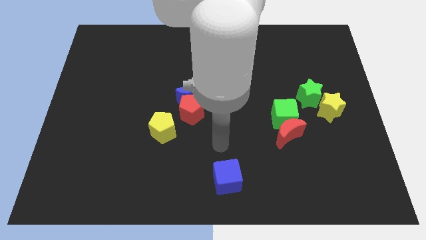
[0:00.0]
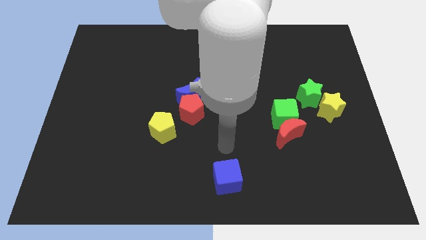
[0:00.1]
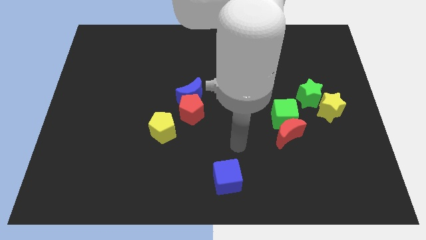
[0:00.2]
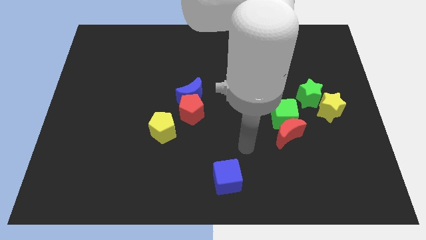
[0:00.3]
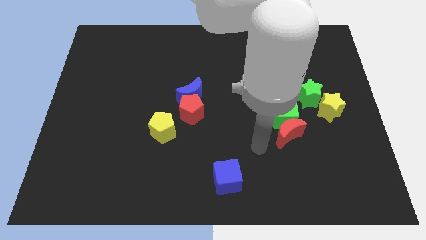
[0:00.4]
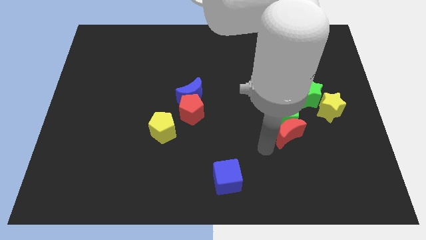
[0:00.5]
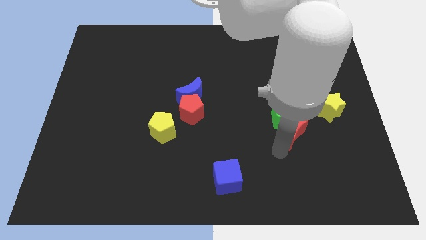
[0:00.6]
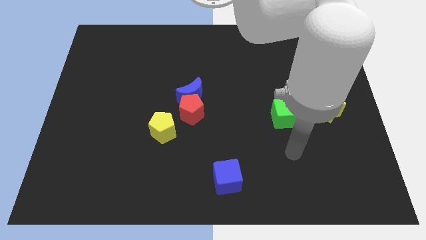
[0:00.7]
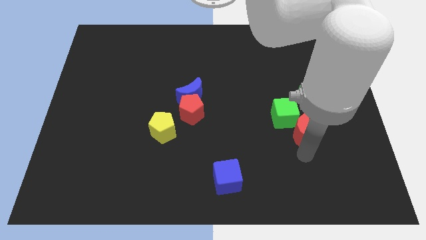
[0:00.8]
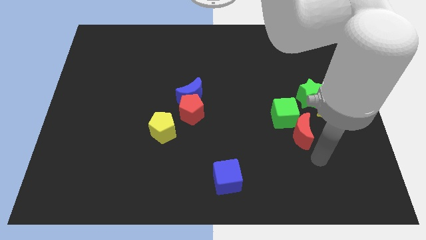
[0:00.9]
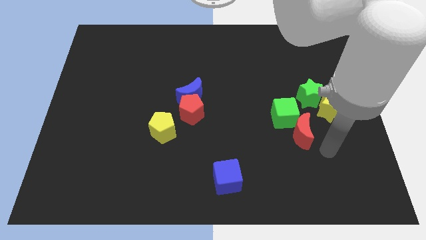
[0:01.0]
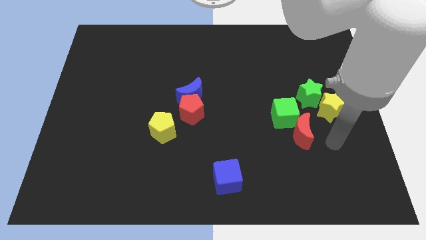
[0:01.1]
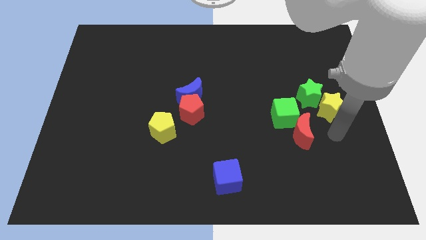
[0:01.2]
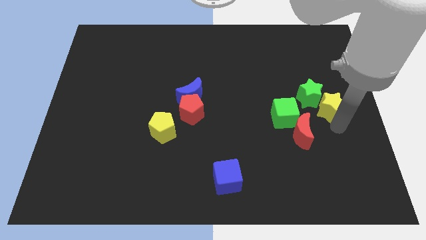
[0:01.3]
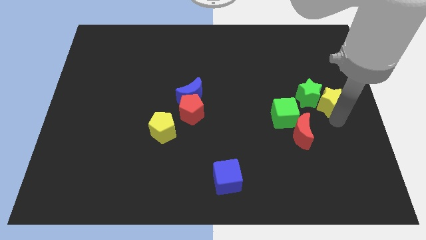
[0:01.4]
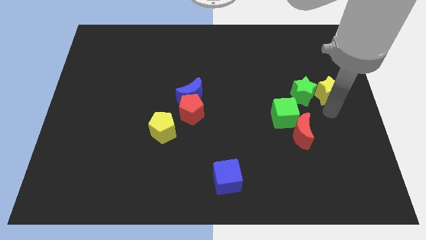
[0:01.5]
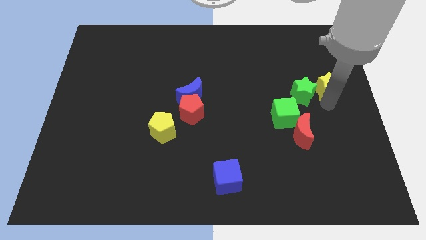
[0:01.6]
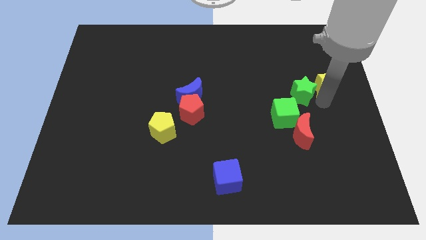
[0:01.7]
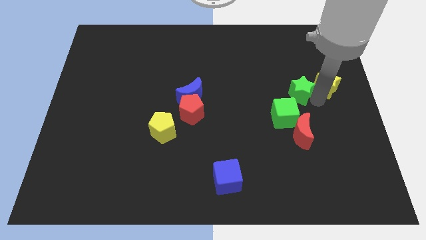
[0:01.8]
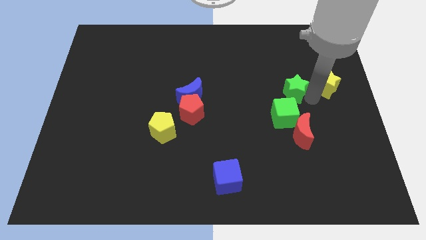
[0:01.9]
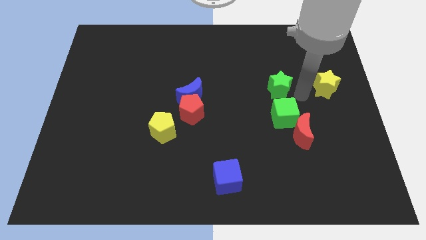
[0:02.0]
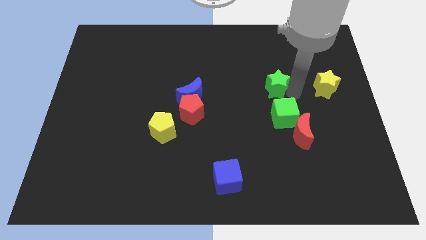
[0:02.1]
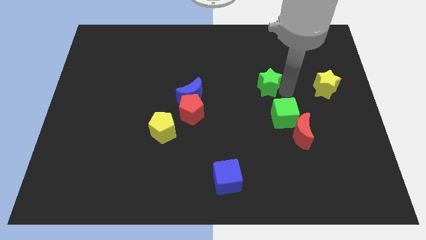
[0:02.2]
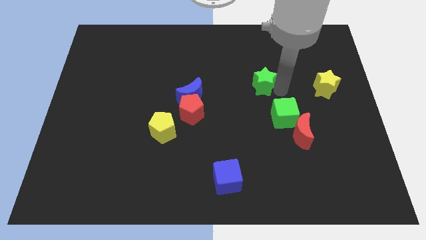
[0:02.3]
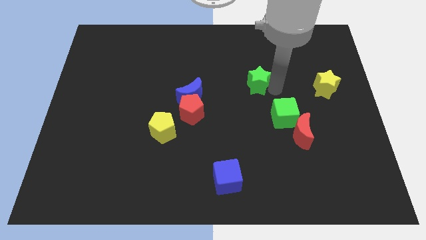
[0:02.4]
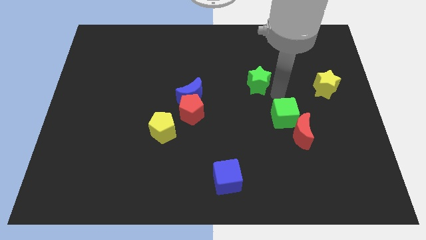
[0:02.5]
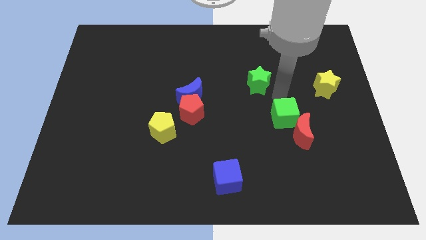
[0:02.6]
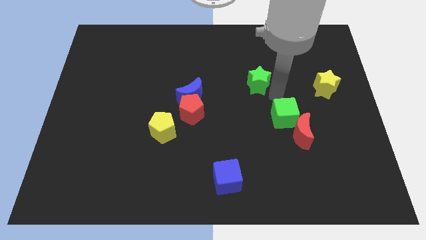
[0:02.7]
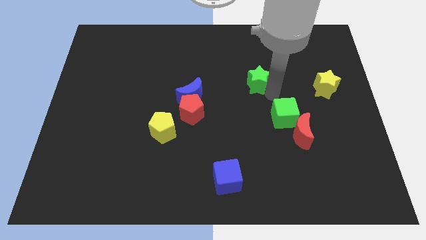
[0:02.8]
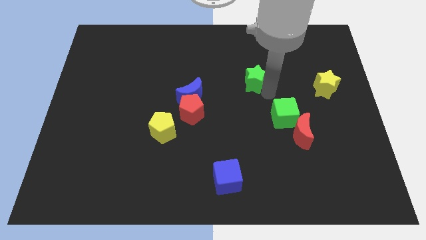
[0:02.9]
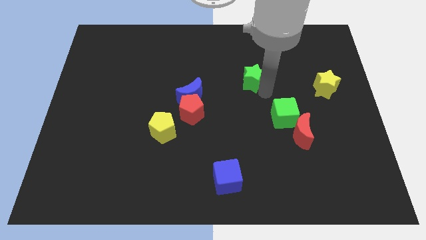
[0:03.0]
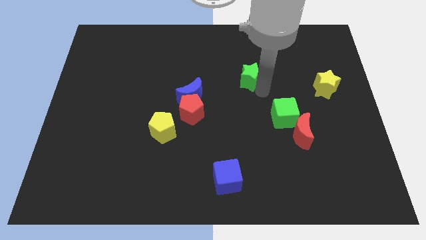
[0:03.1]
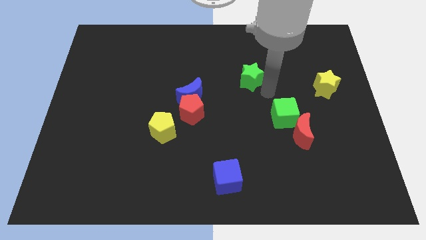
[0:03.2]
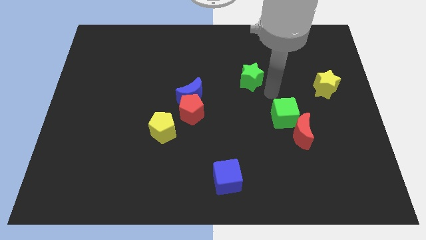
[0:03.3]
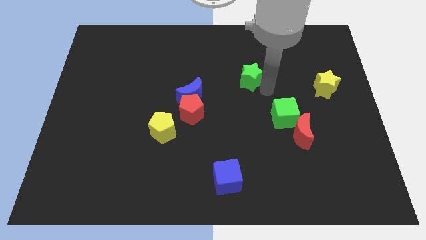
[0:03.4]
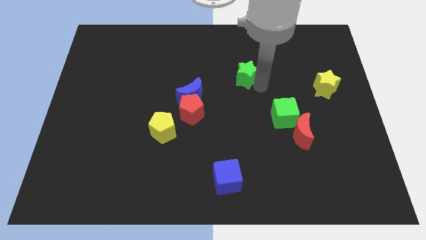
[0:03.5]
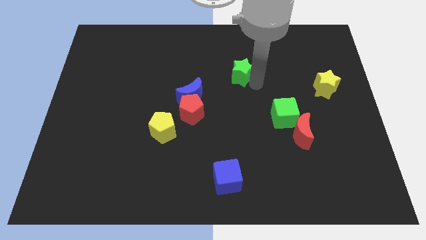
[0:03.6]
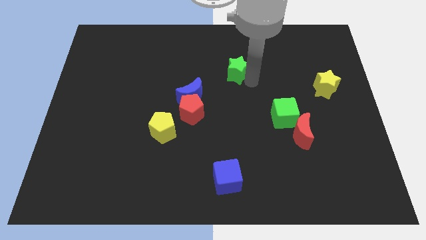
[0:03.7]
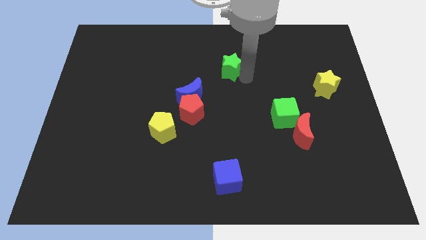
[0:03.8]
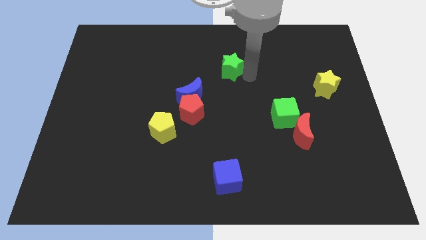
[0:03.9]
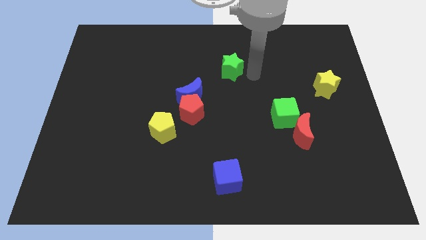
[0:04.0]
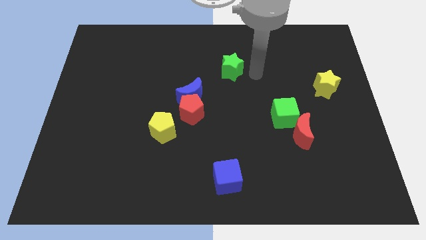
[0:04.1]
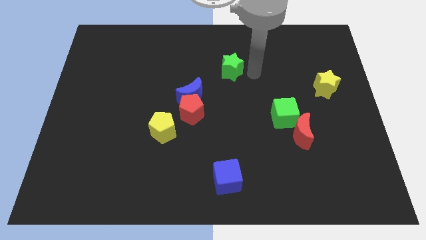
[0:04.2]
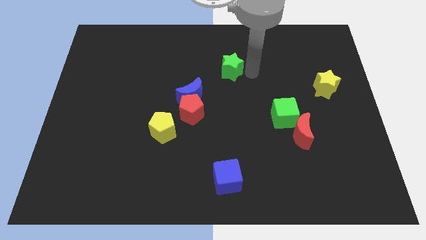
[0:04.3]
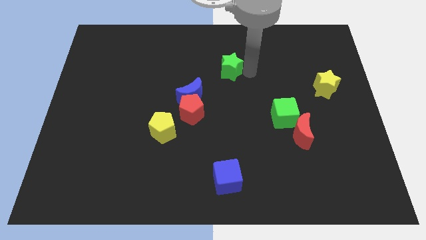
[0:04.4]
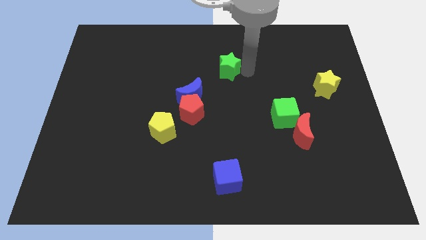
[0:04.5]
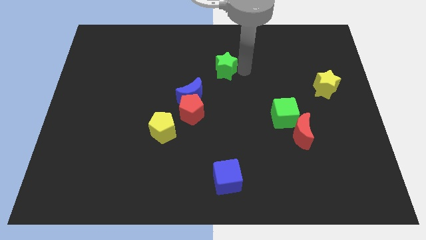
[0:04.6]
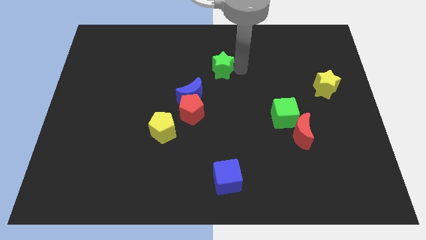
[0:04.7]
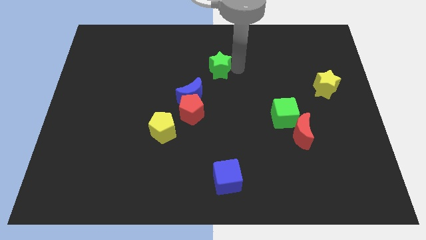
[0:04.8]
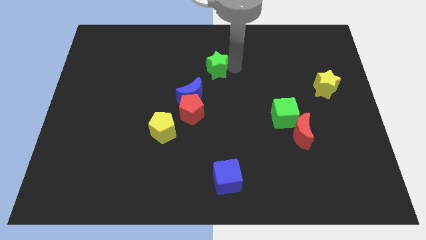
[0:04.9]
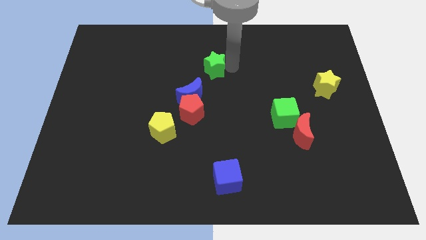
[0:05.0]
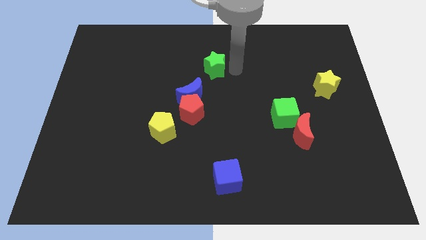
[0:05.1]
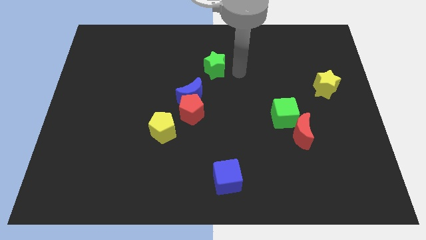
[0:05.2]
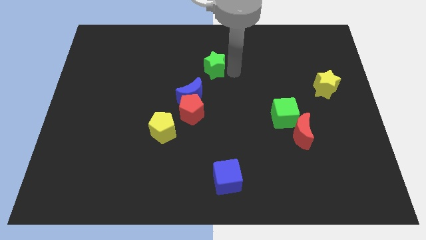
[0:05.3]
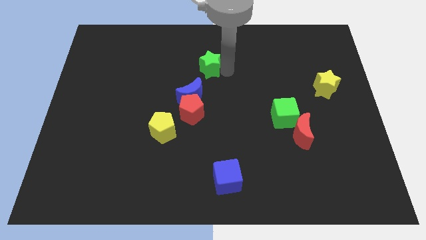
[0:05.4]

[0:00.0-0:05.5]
move the green star to the top of the blue moon

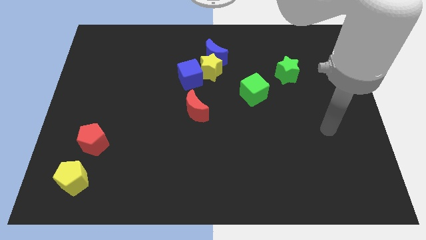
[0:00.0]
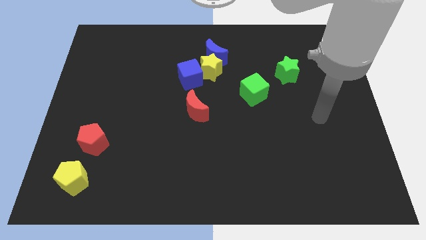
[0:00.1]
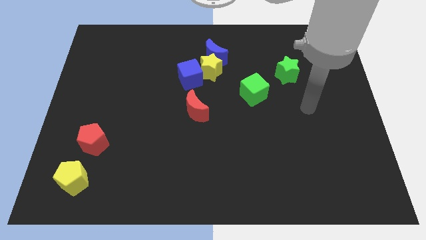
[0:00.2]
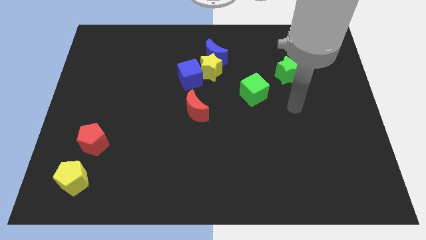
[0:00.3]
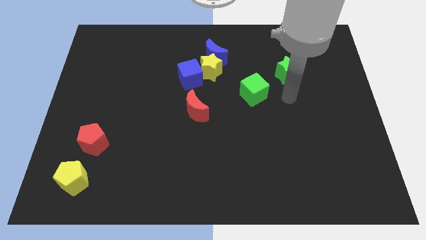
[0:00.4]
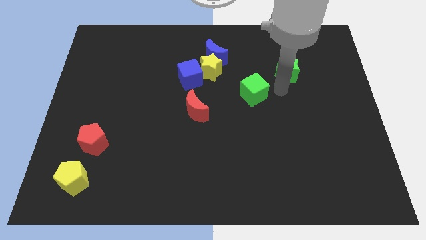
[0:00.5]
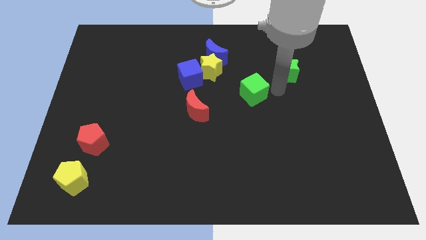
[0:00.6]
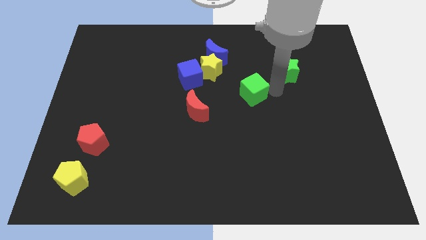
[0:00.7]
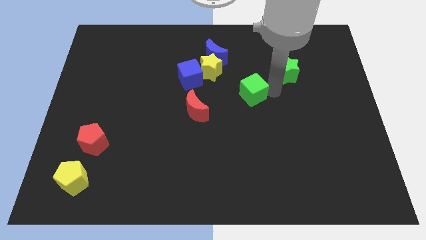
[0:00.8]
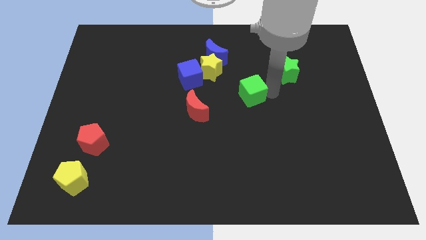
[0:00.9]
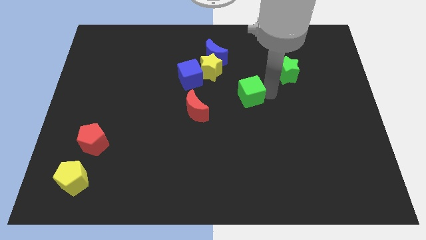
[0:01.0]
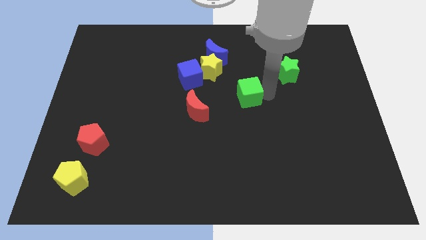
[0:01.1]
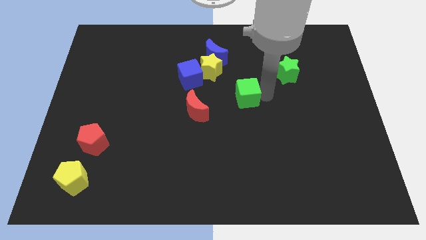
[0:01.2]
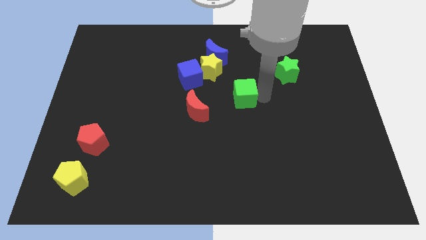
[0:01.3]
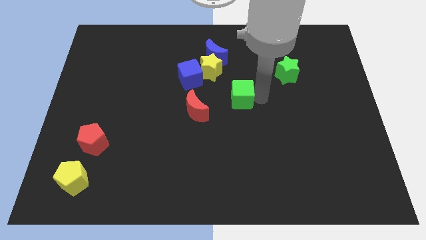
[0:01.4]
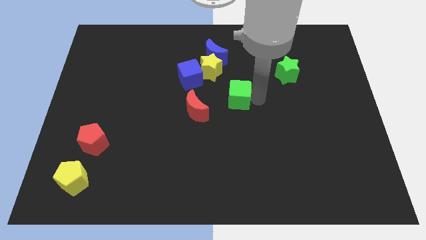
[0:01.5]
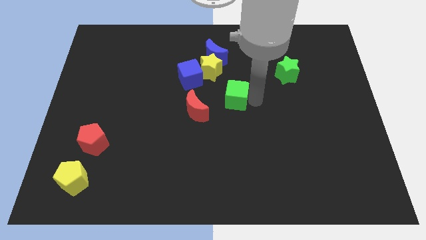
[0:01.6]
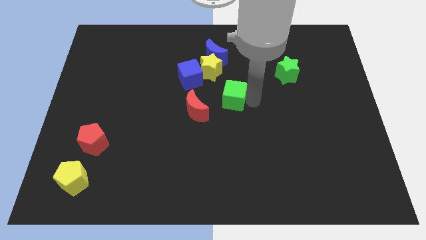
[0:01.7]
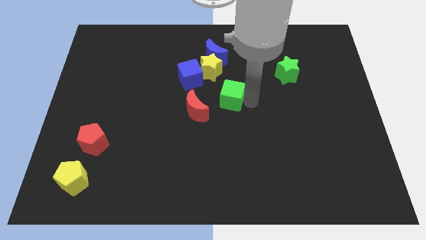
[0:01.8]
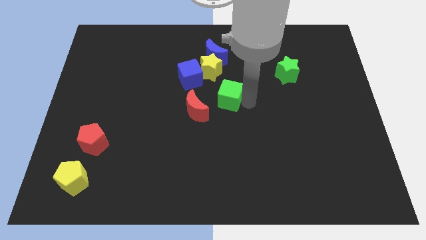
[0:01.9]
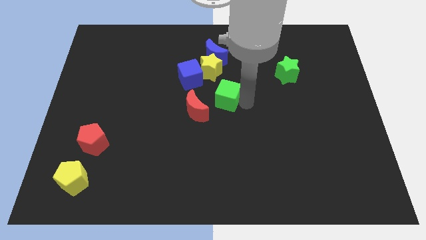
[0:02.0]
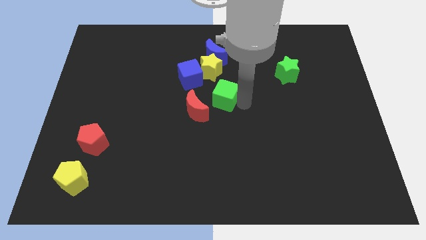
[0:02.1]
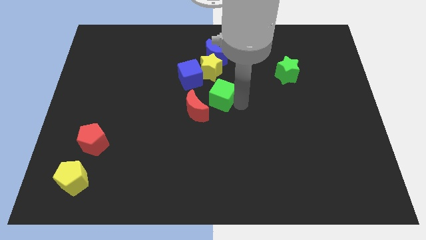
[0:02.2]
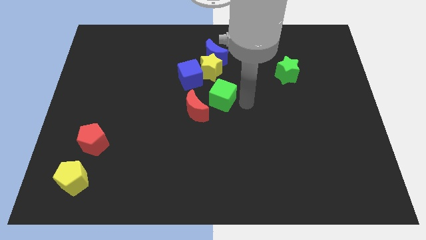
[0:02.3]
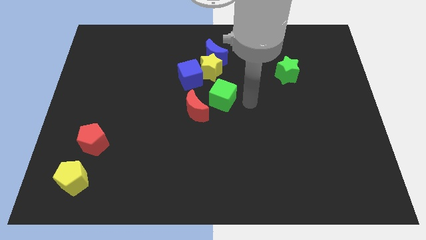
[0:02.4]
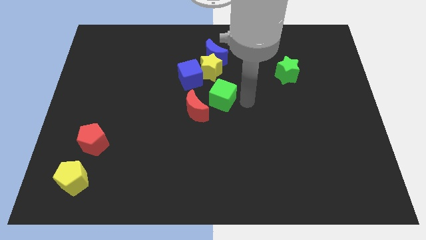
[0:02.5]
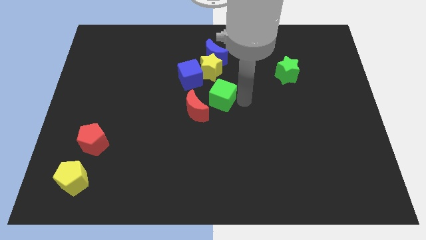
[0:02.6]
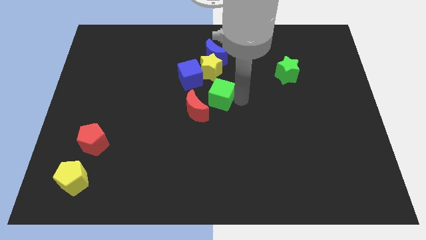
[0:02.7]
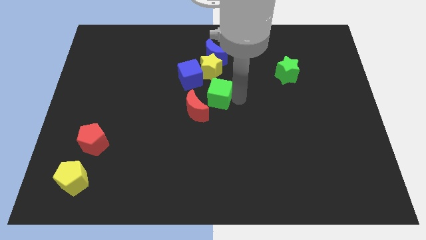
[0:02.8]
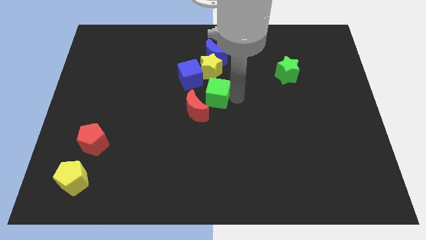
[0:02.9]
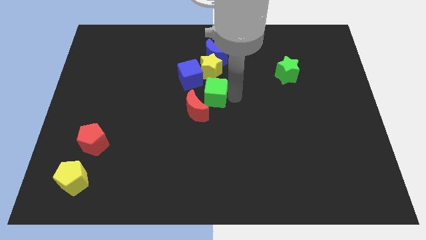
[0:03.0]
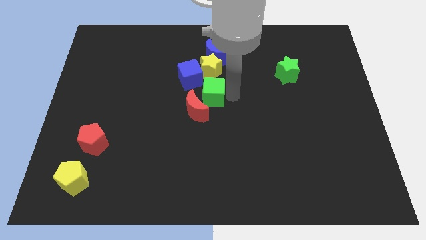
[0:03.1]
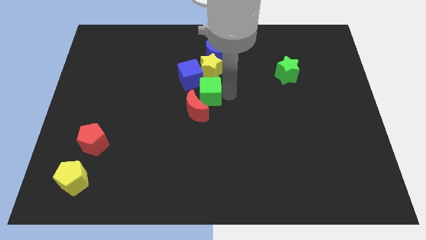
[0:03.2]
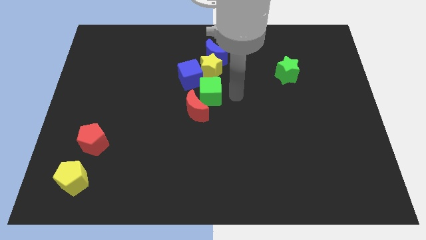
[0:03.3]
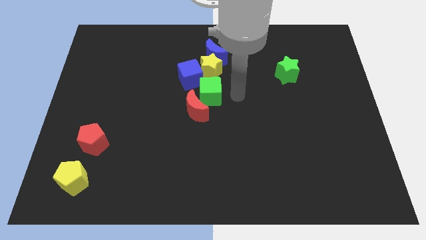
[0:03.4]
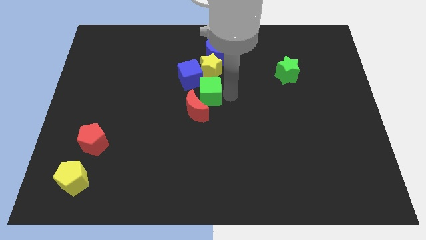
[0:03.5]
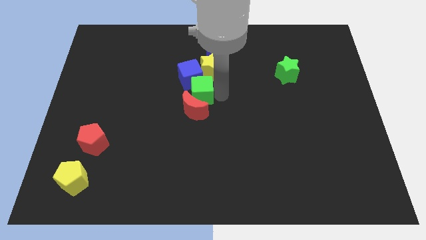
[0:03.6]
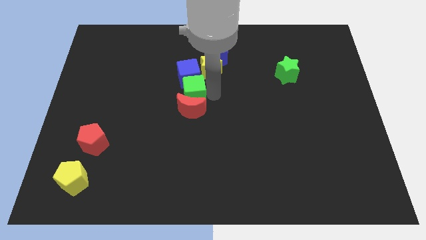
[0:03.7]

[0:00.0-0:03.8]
slide the green cube to the top left side of the red moon
